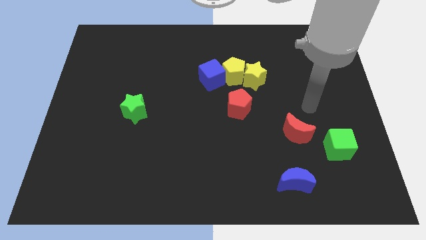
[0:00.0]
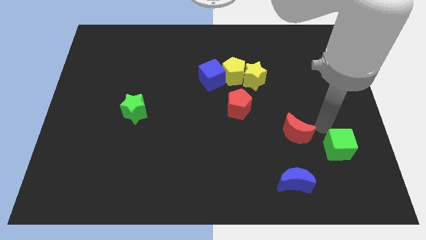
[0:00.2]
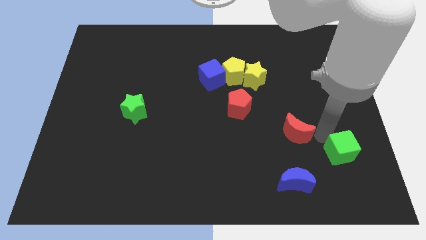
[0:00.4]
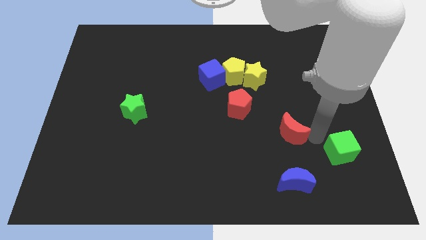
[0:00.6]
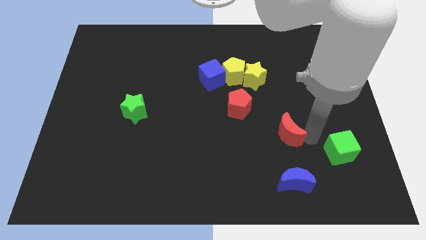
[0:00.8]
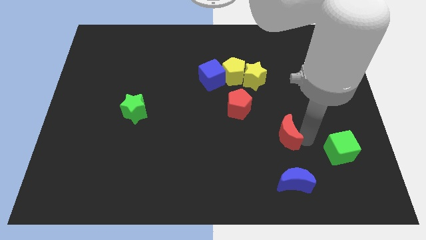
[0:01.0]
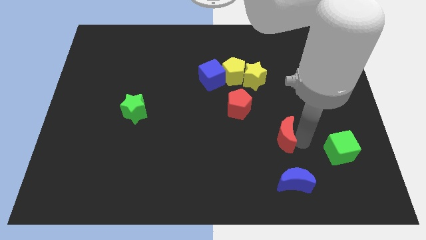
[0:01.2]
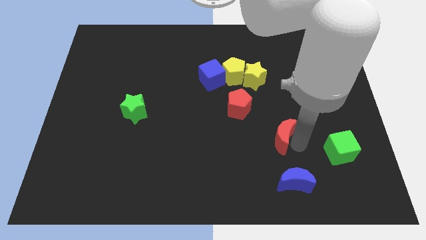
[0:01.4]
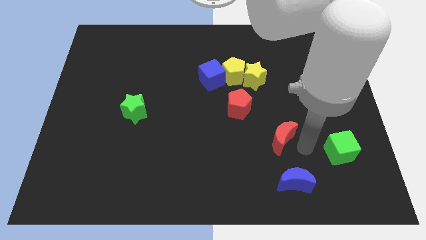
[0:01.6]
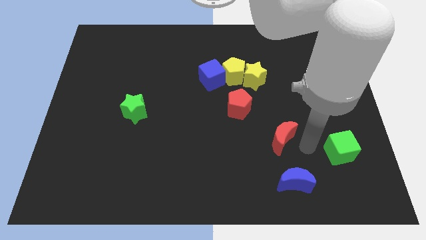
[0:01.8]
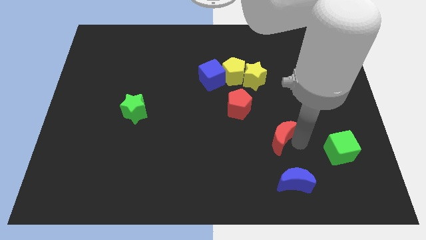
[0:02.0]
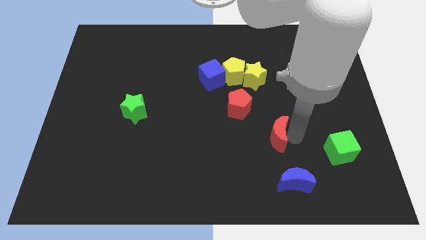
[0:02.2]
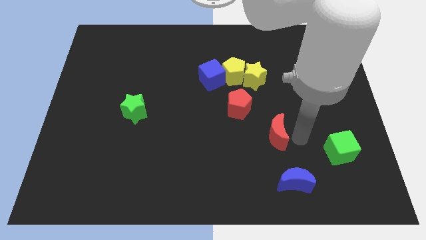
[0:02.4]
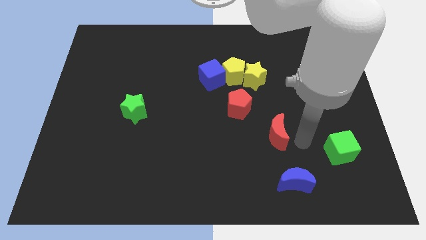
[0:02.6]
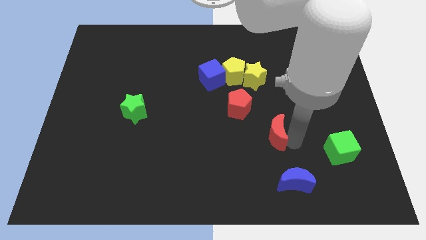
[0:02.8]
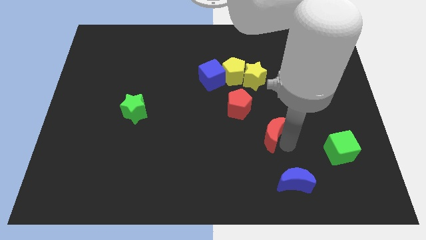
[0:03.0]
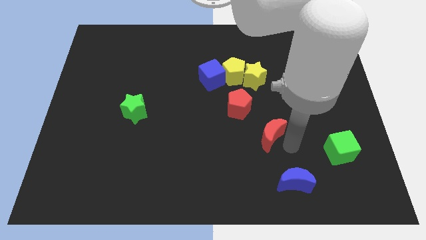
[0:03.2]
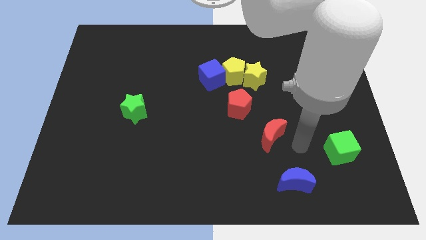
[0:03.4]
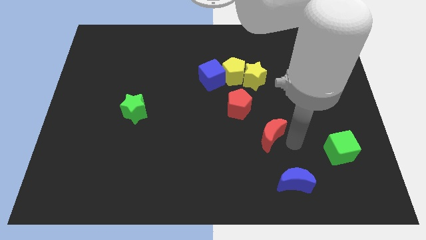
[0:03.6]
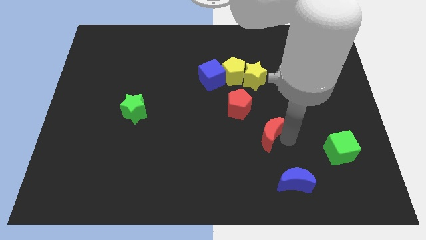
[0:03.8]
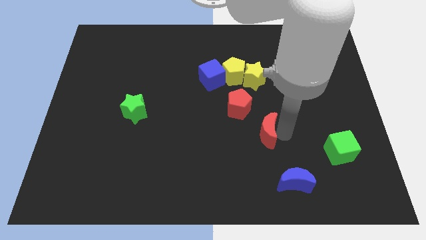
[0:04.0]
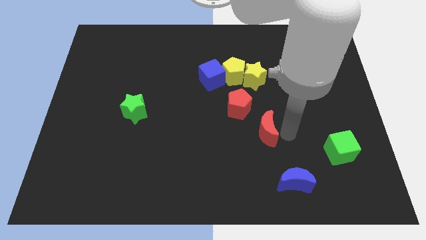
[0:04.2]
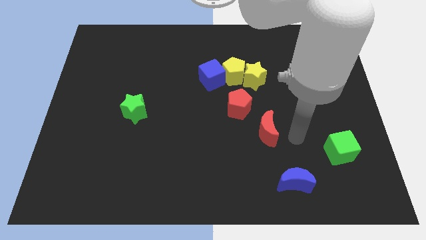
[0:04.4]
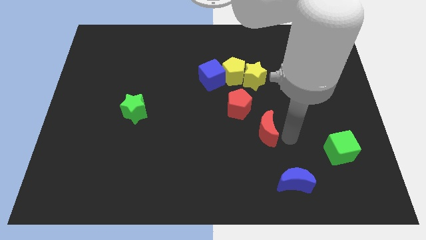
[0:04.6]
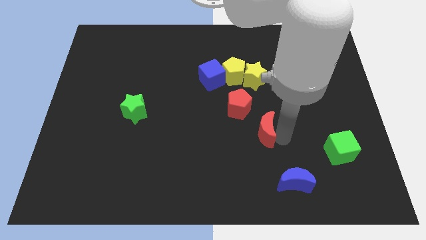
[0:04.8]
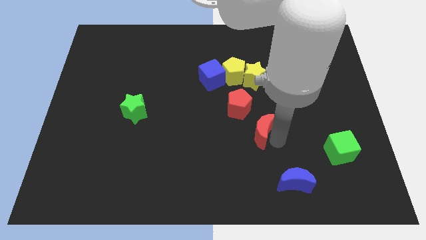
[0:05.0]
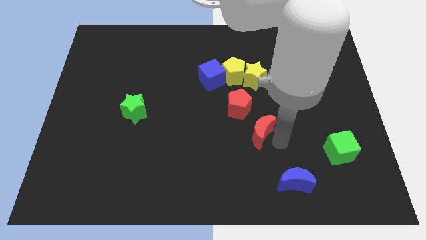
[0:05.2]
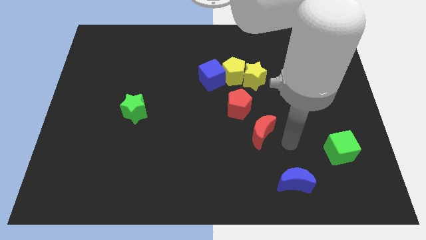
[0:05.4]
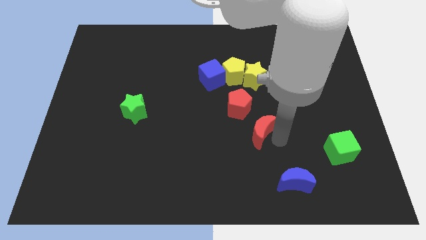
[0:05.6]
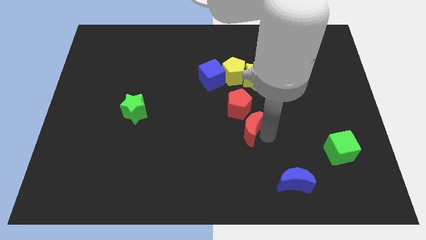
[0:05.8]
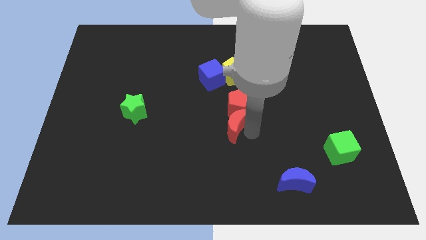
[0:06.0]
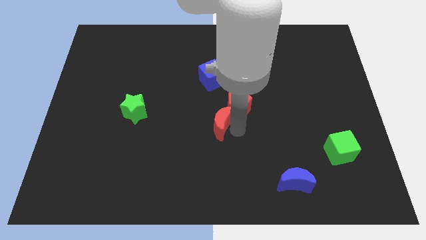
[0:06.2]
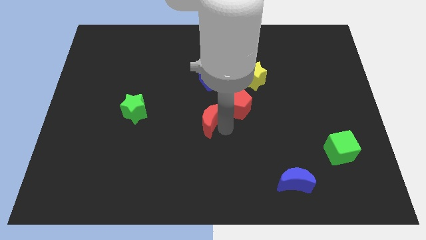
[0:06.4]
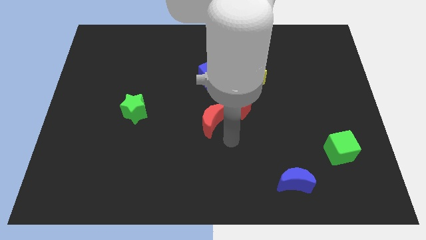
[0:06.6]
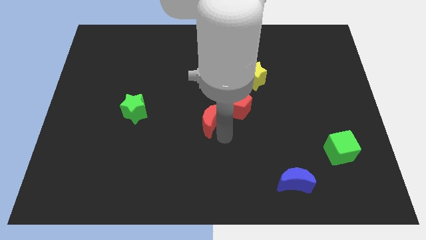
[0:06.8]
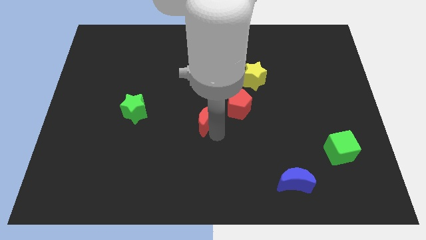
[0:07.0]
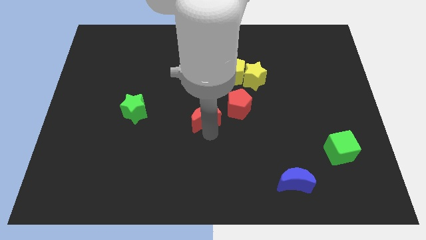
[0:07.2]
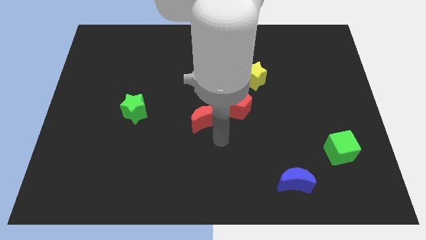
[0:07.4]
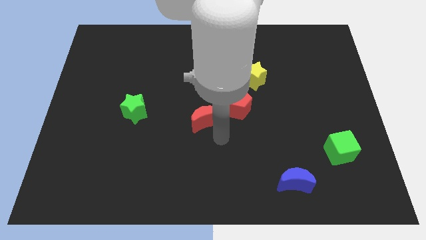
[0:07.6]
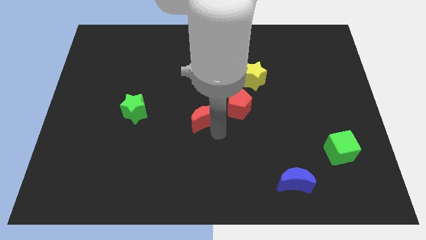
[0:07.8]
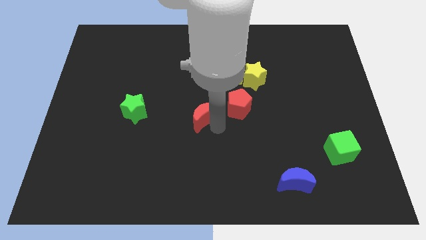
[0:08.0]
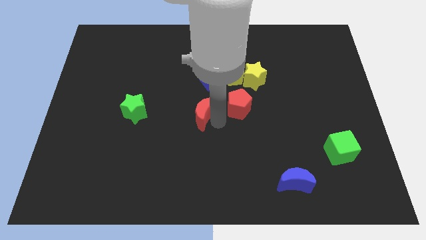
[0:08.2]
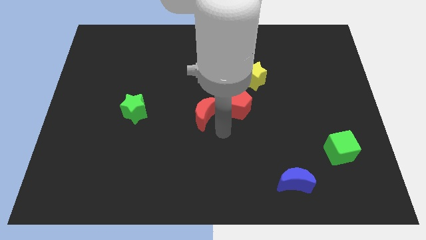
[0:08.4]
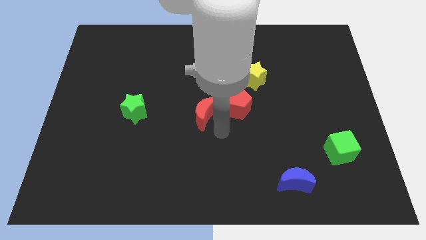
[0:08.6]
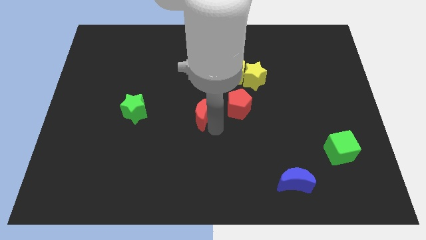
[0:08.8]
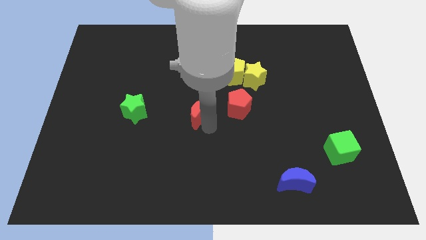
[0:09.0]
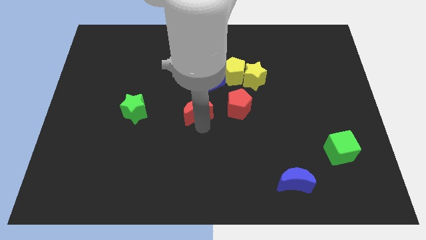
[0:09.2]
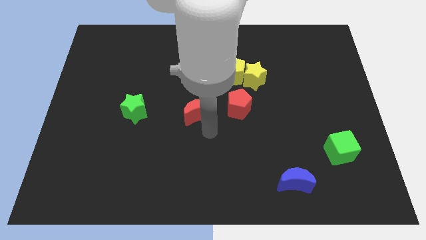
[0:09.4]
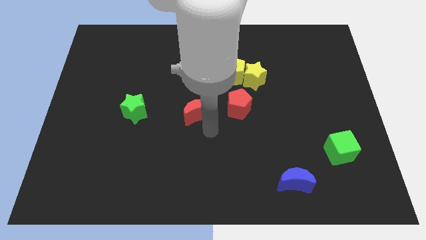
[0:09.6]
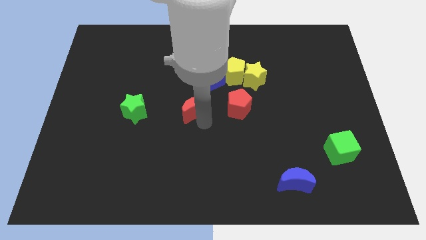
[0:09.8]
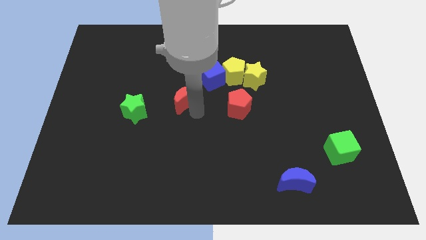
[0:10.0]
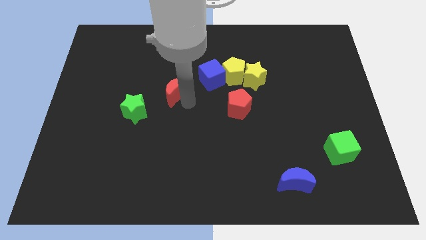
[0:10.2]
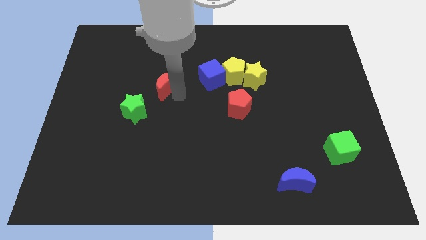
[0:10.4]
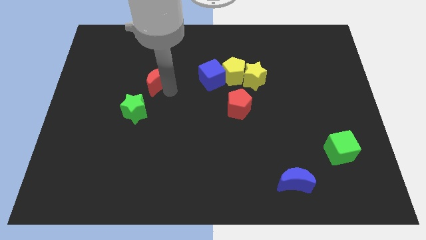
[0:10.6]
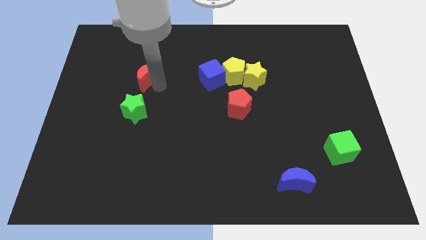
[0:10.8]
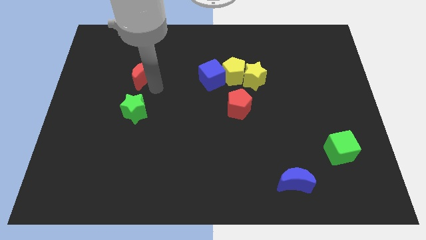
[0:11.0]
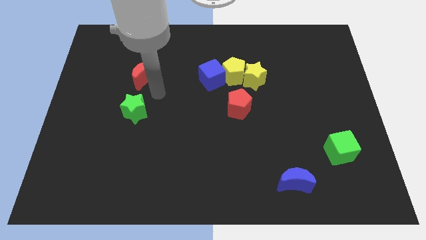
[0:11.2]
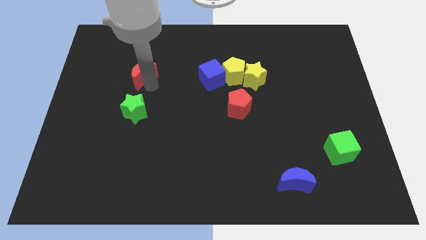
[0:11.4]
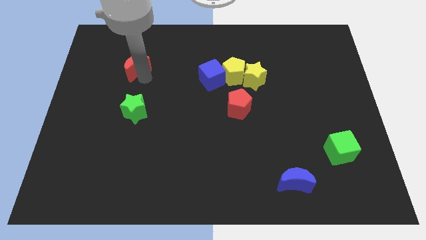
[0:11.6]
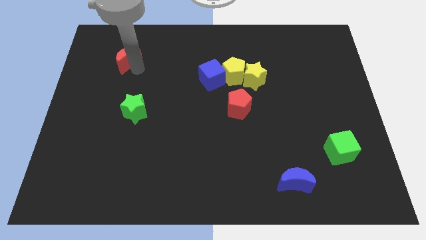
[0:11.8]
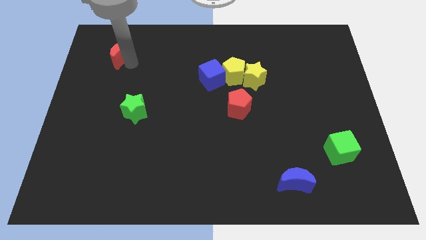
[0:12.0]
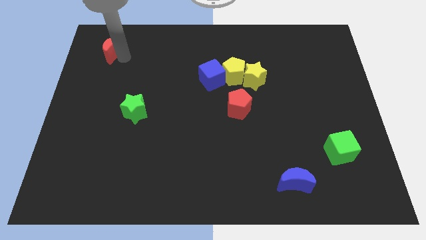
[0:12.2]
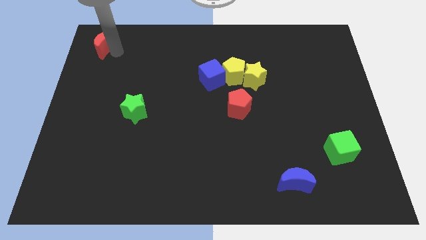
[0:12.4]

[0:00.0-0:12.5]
slide the red moon to the upper left corner
